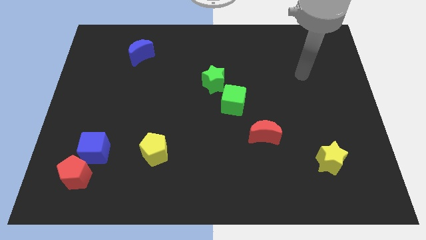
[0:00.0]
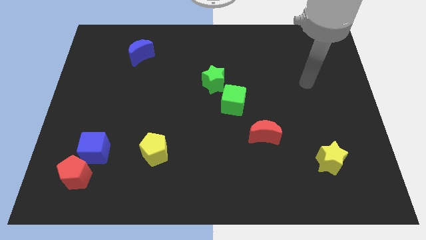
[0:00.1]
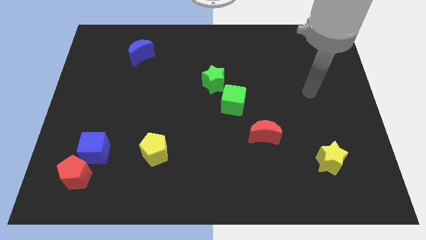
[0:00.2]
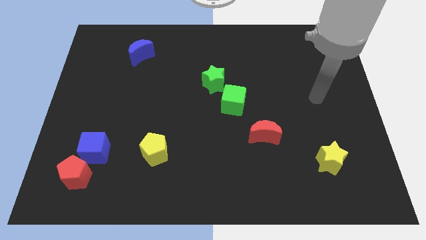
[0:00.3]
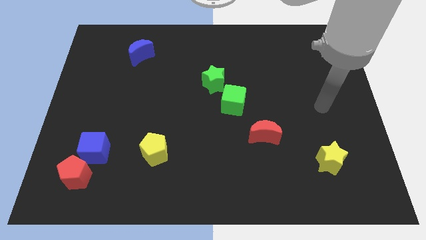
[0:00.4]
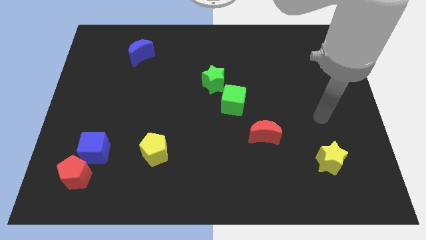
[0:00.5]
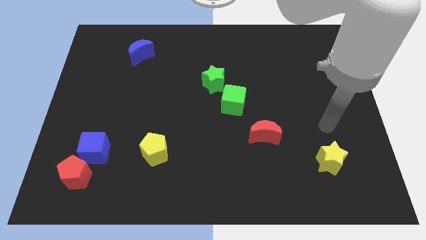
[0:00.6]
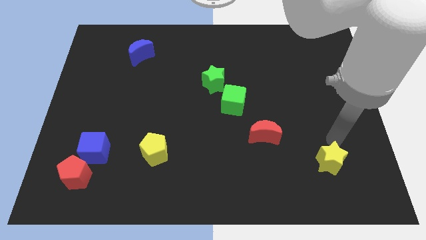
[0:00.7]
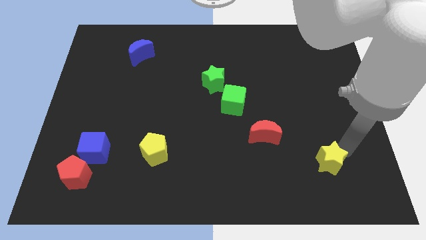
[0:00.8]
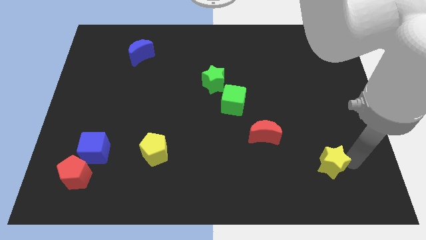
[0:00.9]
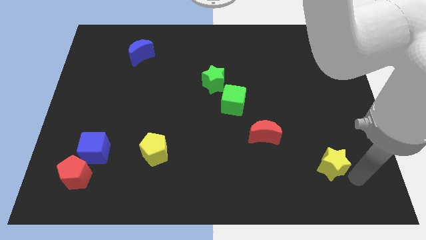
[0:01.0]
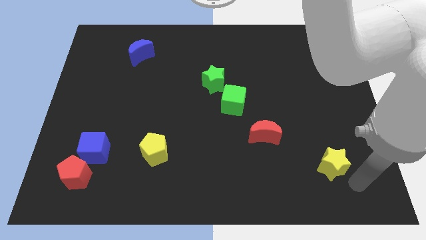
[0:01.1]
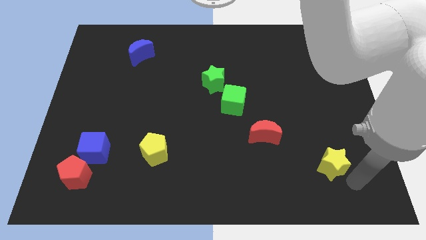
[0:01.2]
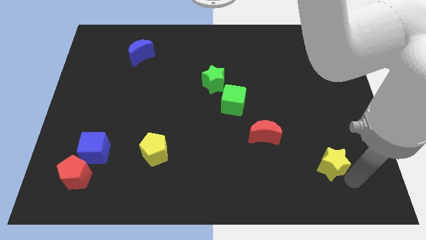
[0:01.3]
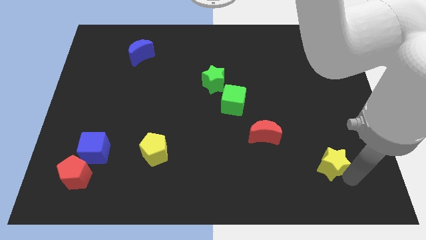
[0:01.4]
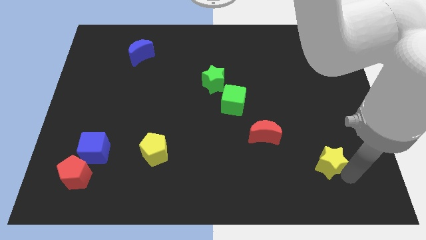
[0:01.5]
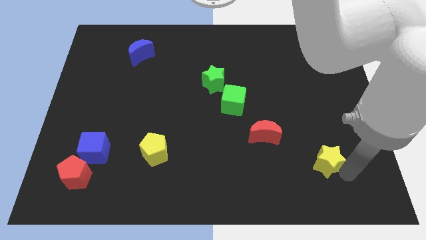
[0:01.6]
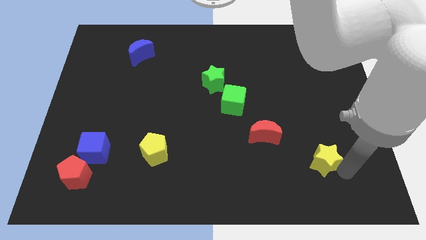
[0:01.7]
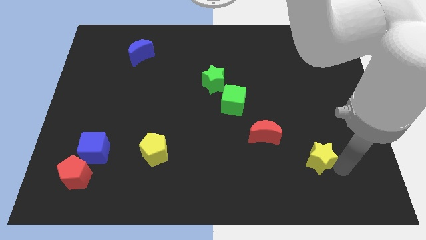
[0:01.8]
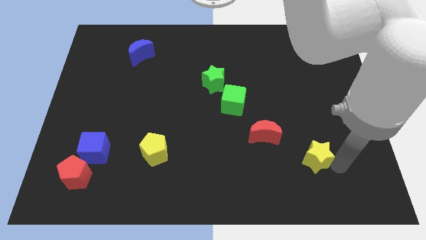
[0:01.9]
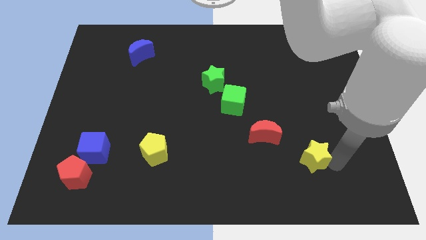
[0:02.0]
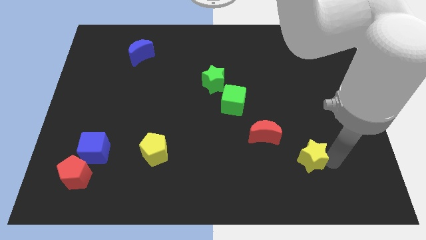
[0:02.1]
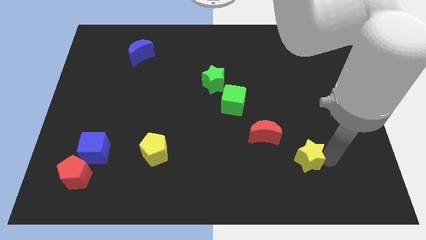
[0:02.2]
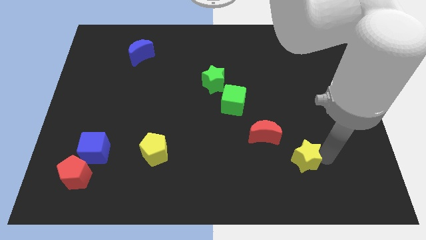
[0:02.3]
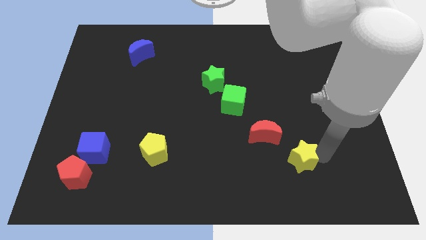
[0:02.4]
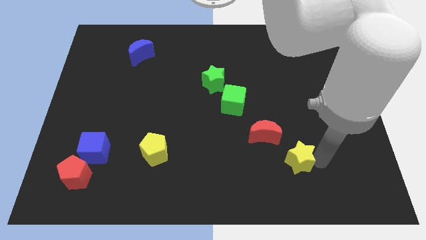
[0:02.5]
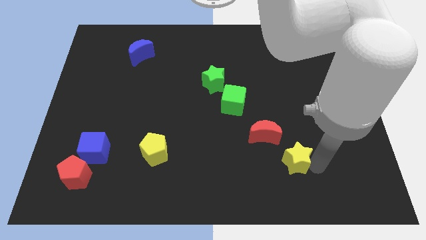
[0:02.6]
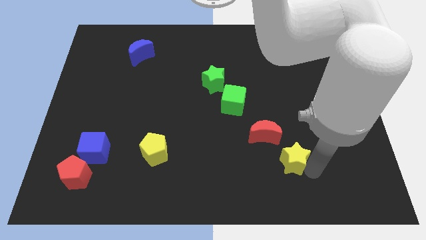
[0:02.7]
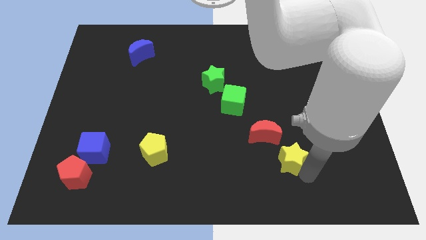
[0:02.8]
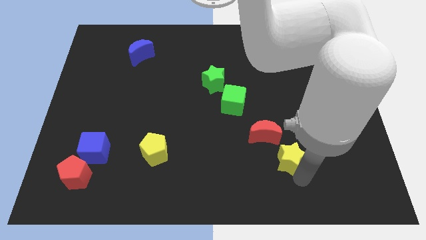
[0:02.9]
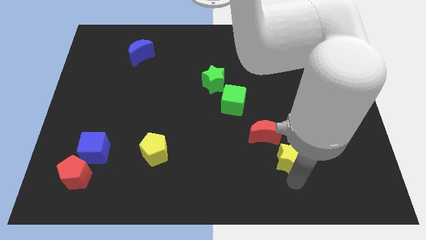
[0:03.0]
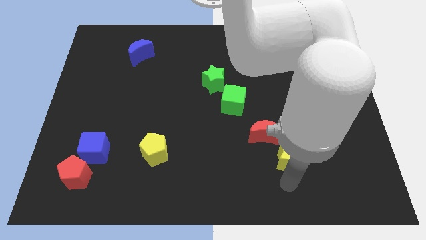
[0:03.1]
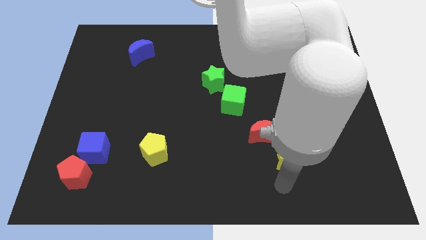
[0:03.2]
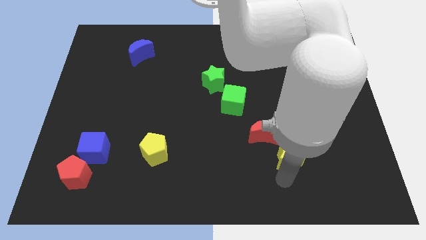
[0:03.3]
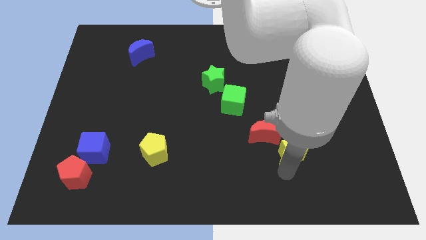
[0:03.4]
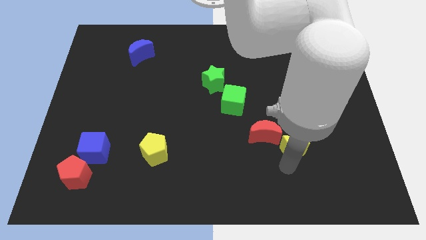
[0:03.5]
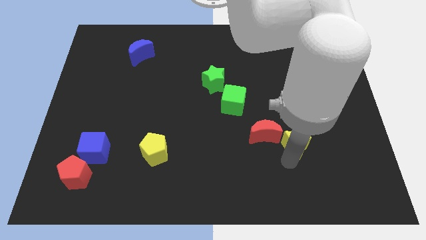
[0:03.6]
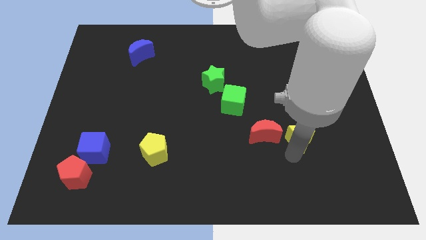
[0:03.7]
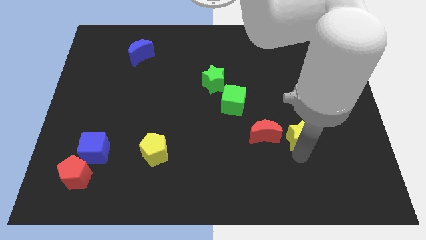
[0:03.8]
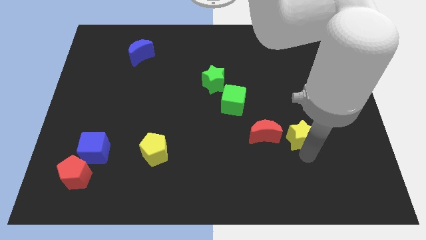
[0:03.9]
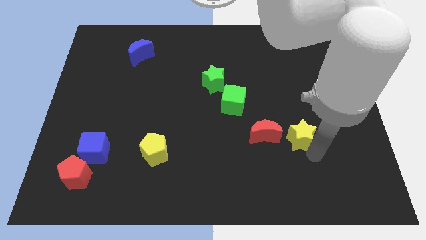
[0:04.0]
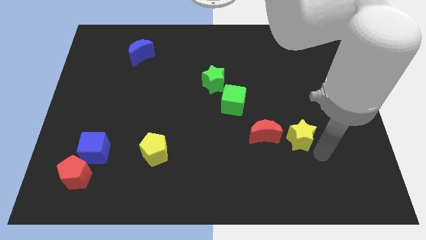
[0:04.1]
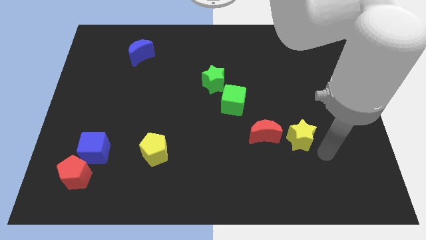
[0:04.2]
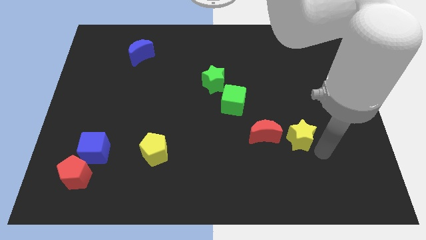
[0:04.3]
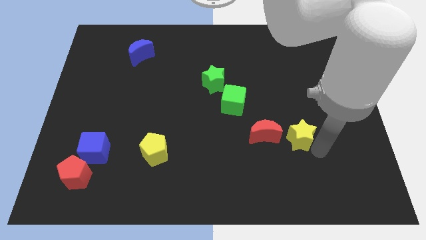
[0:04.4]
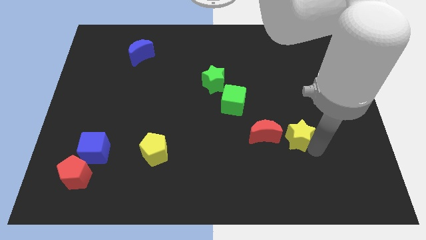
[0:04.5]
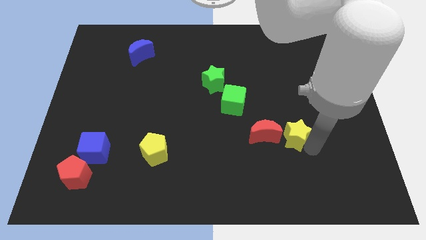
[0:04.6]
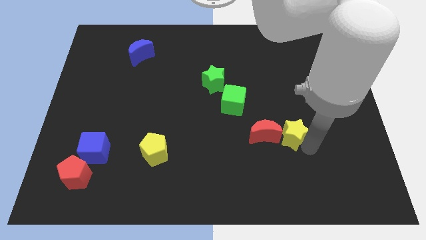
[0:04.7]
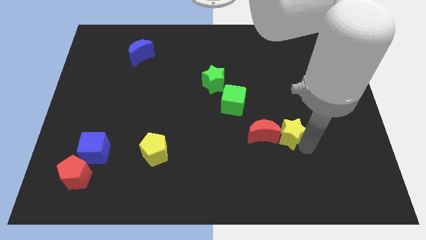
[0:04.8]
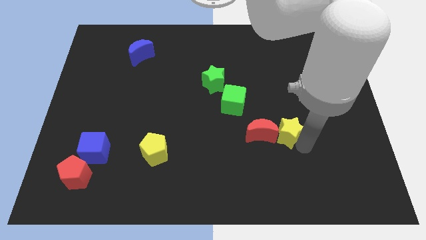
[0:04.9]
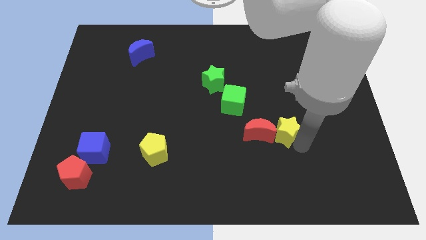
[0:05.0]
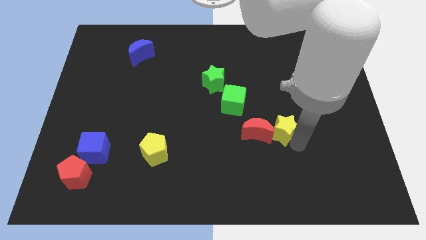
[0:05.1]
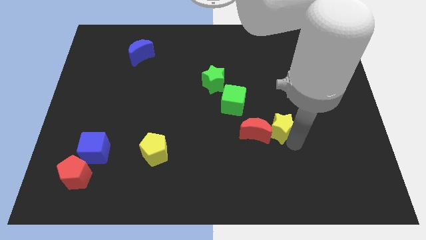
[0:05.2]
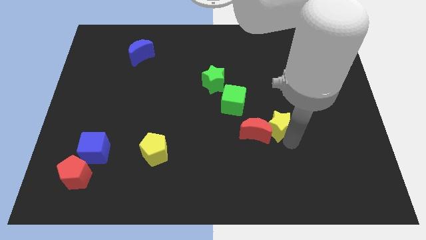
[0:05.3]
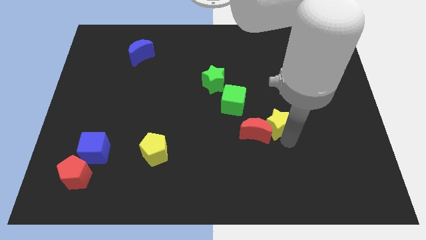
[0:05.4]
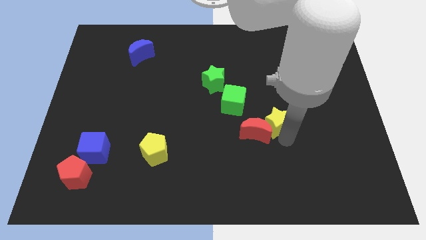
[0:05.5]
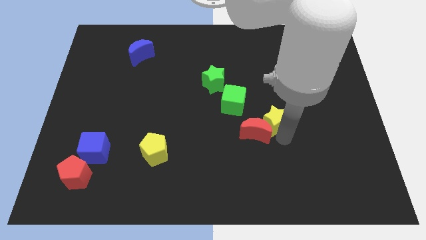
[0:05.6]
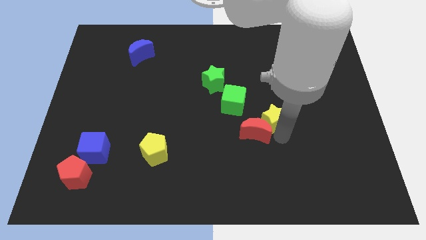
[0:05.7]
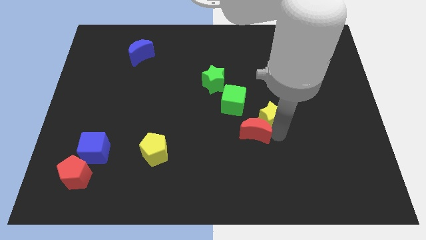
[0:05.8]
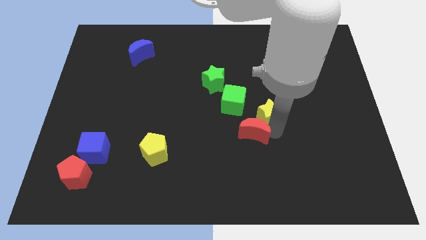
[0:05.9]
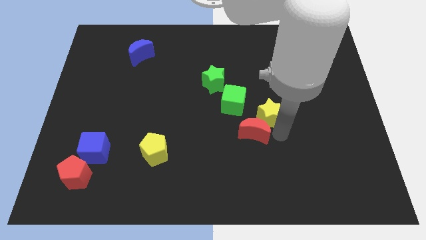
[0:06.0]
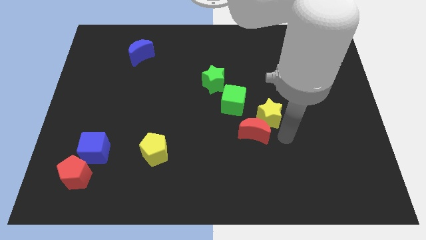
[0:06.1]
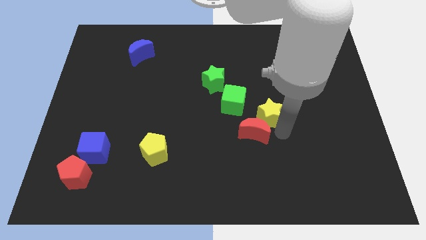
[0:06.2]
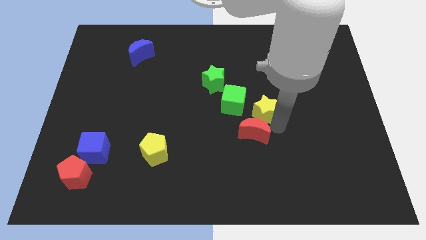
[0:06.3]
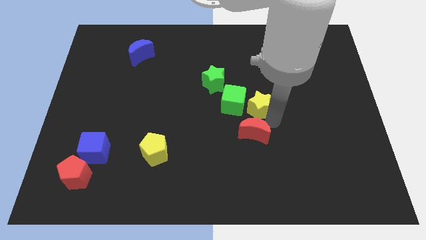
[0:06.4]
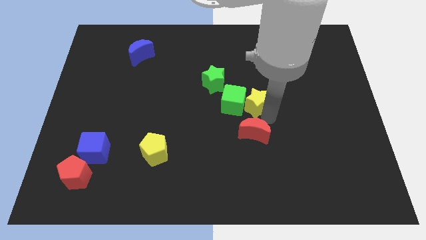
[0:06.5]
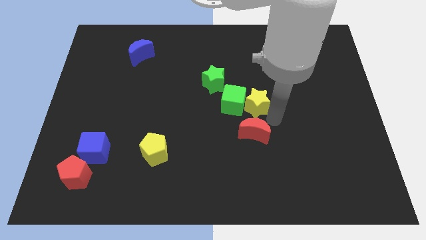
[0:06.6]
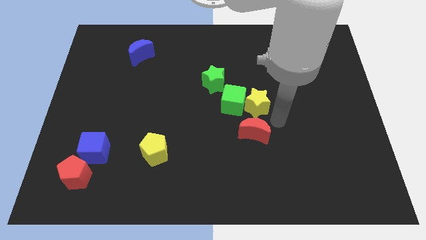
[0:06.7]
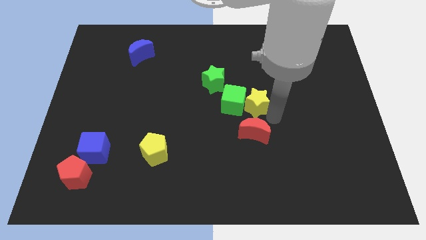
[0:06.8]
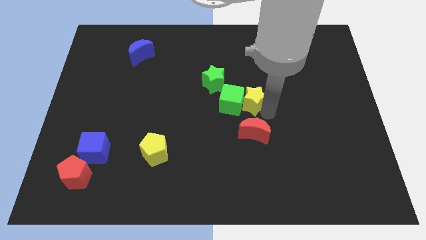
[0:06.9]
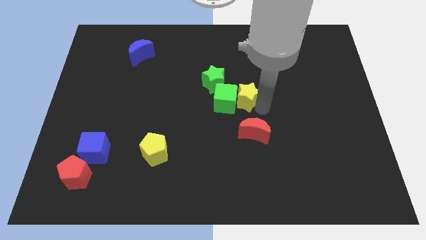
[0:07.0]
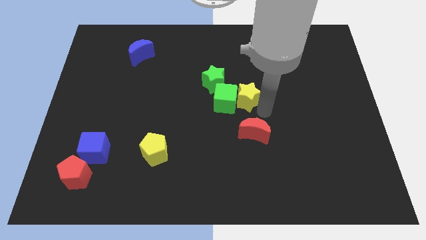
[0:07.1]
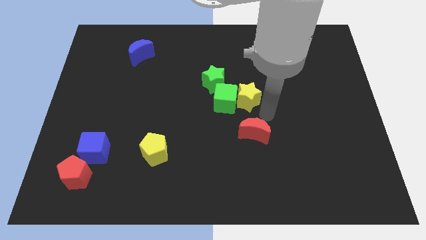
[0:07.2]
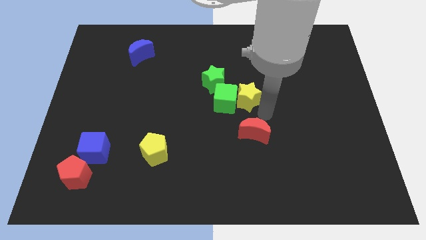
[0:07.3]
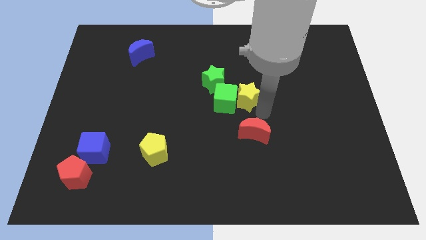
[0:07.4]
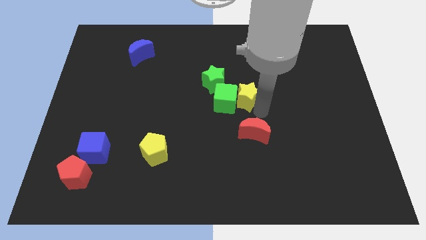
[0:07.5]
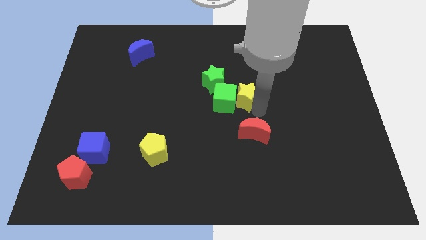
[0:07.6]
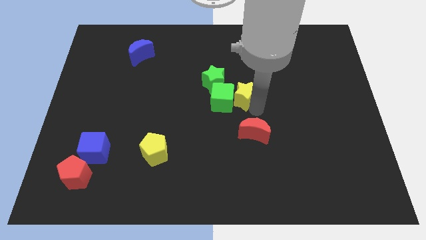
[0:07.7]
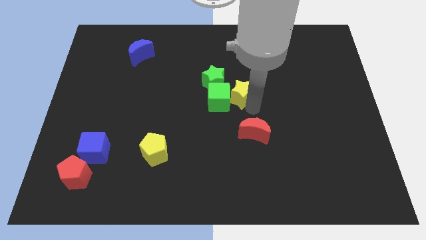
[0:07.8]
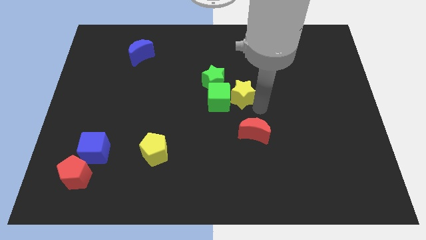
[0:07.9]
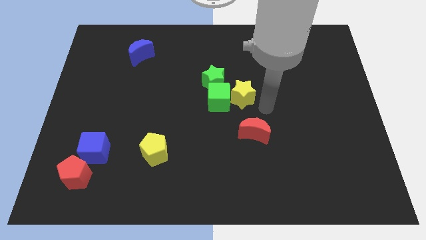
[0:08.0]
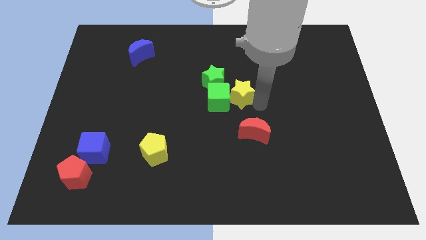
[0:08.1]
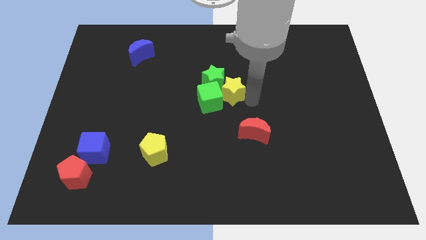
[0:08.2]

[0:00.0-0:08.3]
push the yellow star to the green star
